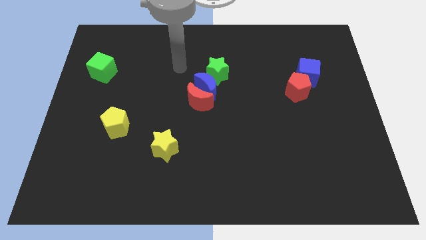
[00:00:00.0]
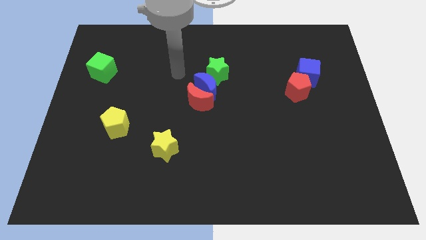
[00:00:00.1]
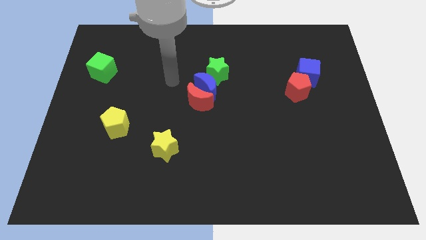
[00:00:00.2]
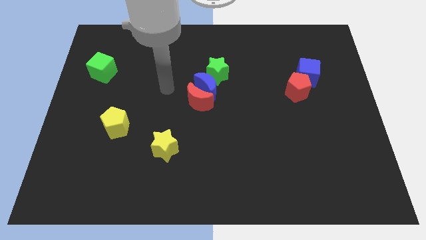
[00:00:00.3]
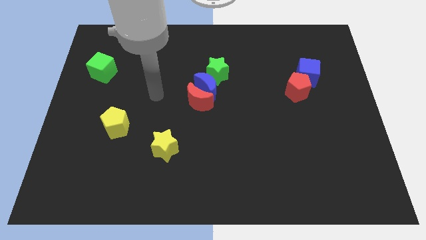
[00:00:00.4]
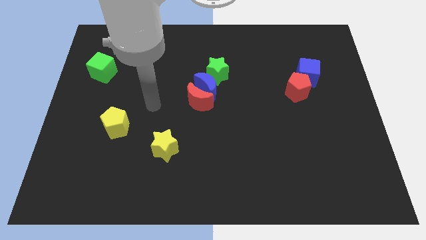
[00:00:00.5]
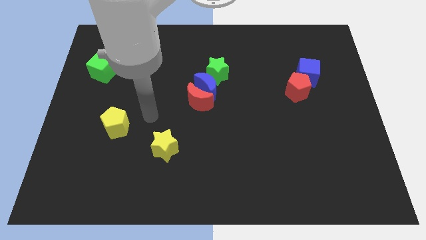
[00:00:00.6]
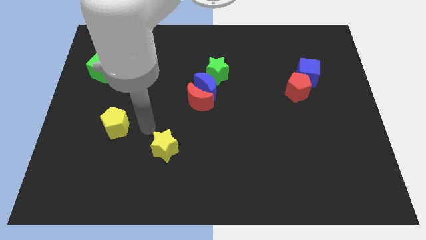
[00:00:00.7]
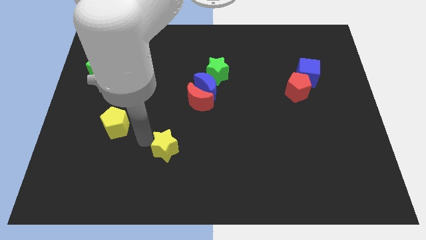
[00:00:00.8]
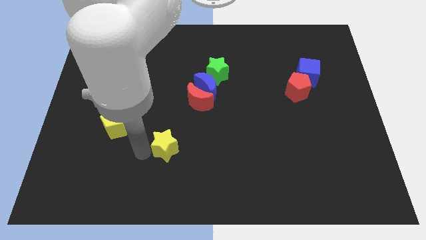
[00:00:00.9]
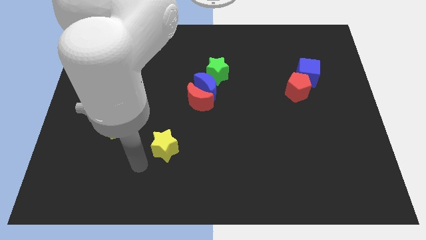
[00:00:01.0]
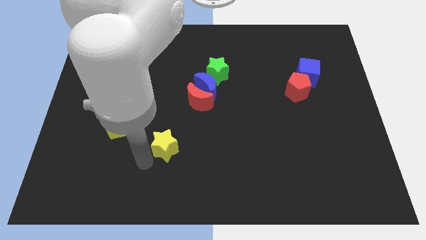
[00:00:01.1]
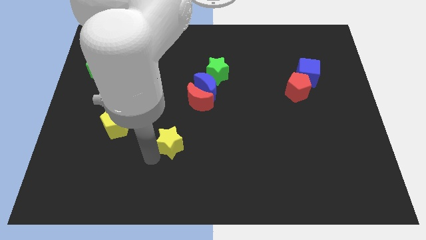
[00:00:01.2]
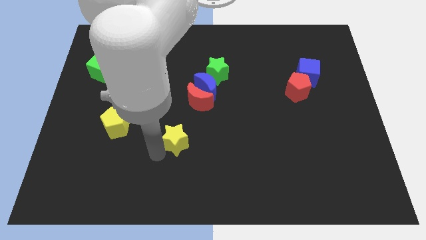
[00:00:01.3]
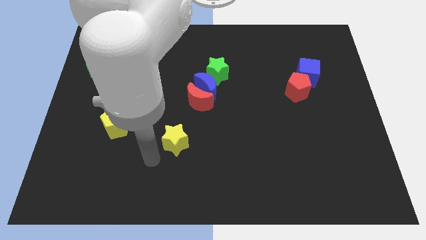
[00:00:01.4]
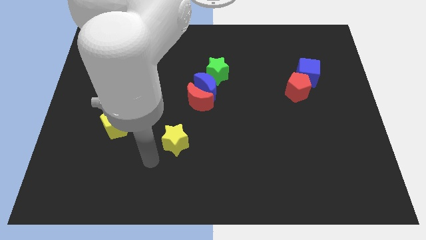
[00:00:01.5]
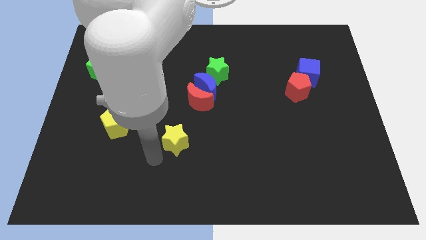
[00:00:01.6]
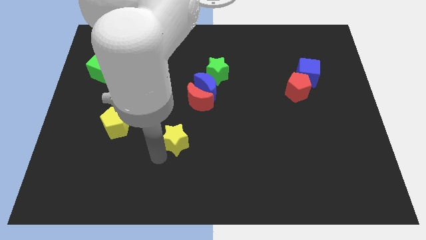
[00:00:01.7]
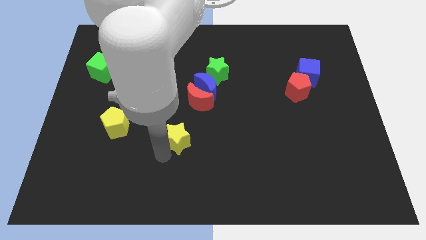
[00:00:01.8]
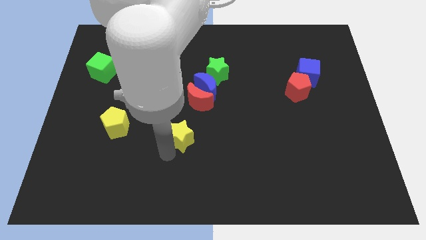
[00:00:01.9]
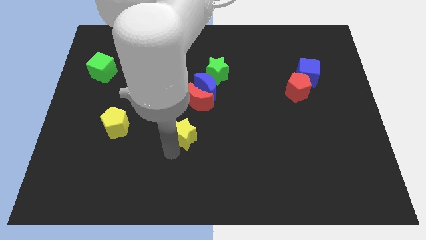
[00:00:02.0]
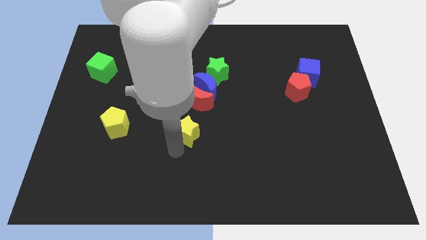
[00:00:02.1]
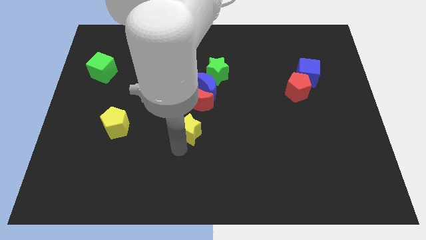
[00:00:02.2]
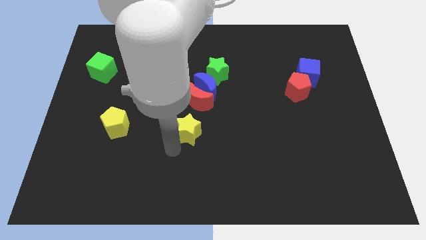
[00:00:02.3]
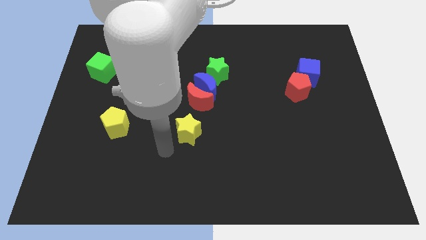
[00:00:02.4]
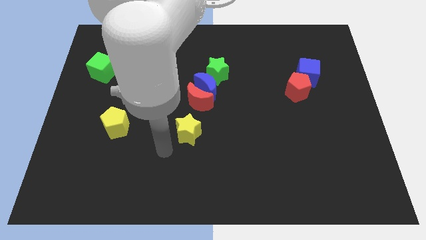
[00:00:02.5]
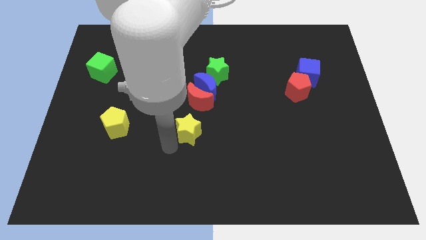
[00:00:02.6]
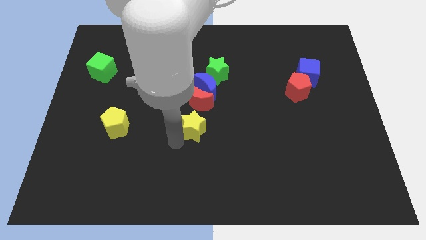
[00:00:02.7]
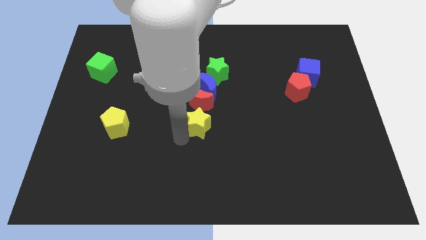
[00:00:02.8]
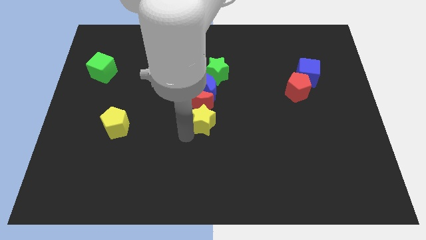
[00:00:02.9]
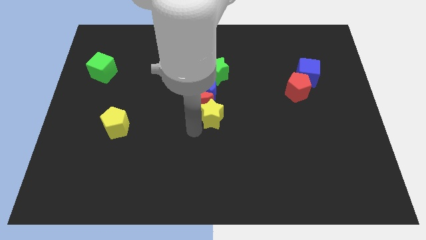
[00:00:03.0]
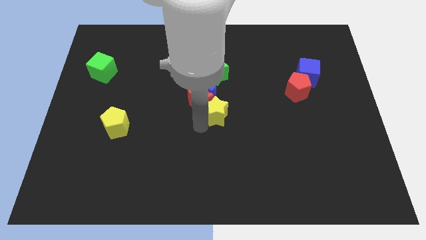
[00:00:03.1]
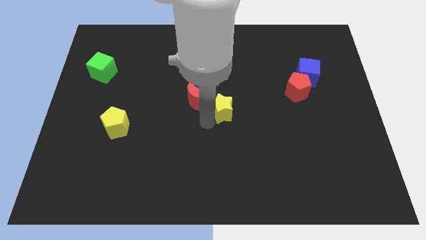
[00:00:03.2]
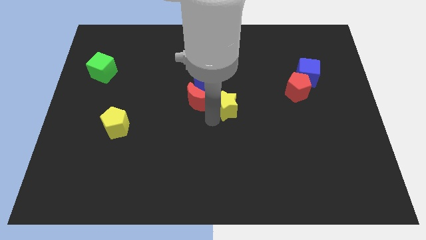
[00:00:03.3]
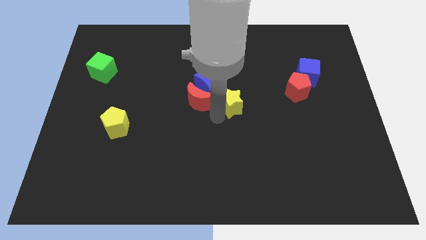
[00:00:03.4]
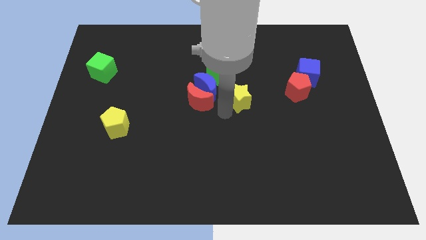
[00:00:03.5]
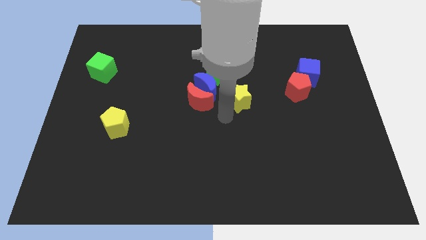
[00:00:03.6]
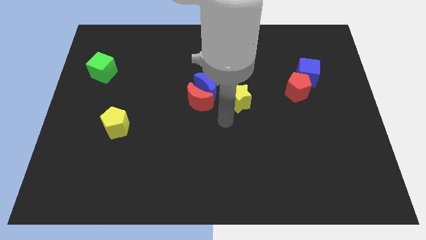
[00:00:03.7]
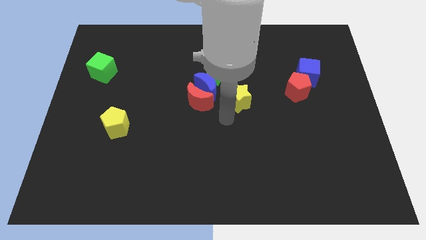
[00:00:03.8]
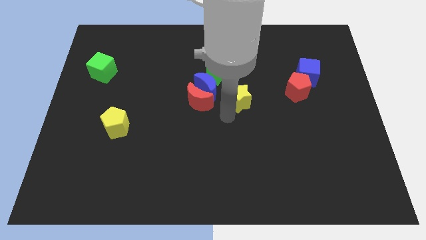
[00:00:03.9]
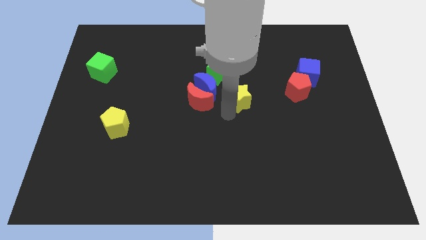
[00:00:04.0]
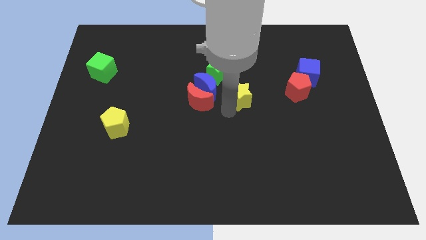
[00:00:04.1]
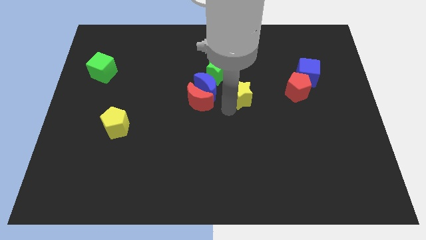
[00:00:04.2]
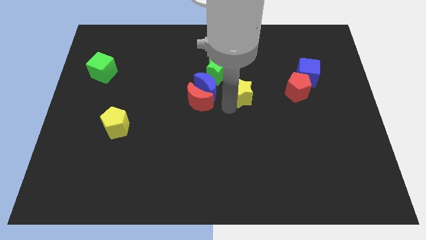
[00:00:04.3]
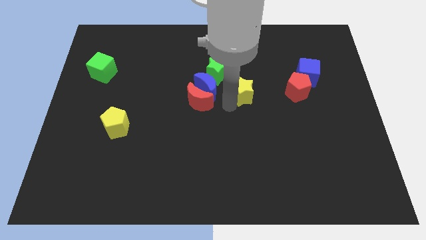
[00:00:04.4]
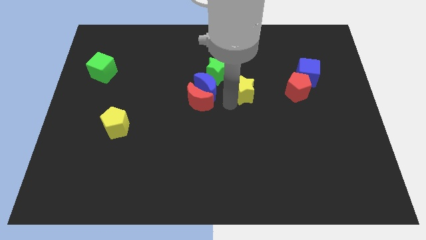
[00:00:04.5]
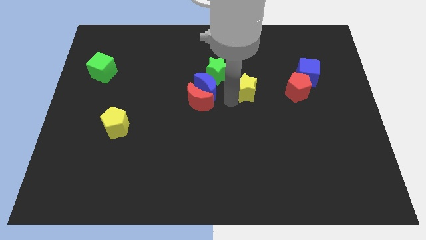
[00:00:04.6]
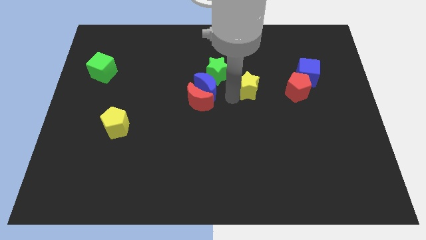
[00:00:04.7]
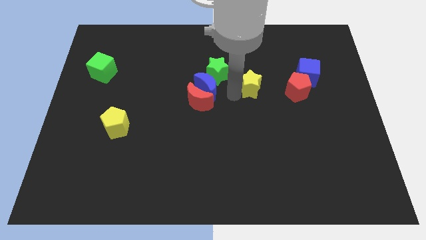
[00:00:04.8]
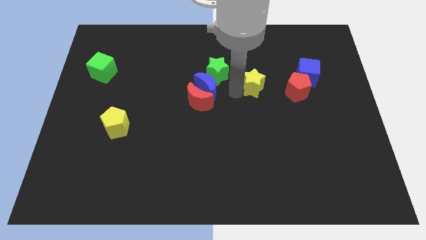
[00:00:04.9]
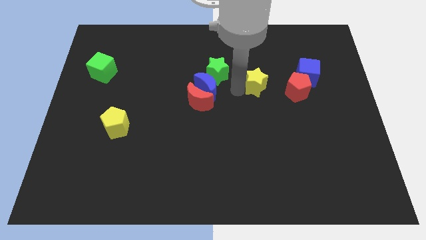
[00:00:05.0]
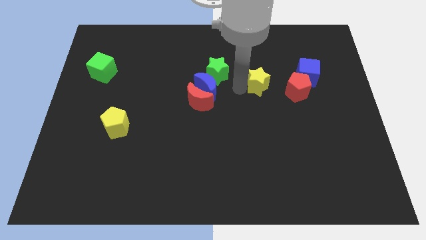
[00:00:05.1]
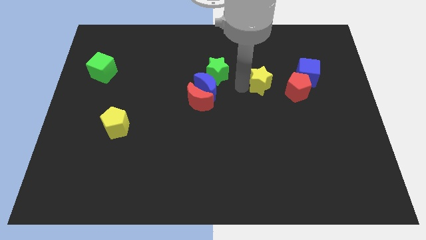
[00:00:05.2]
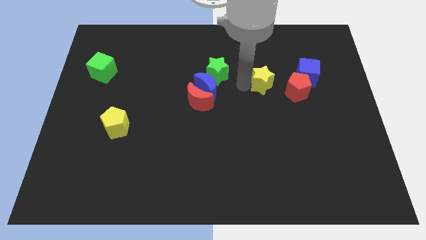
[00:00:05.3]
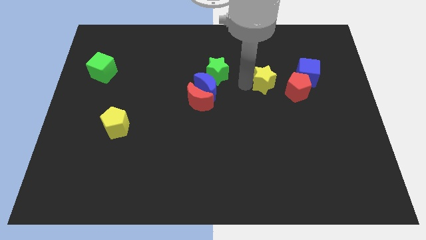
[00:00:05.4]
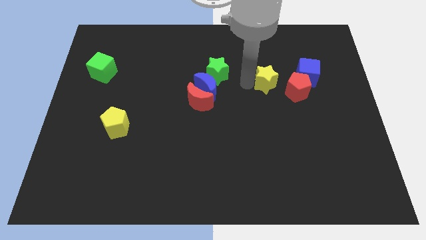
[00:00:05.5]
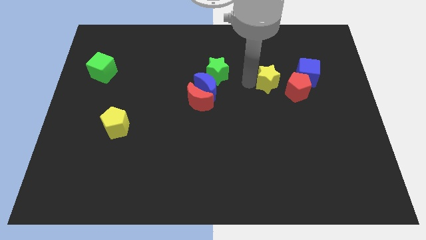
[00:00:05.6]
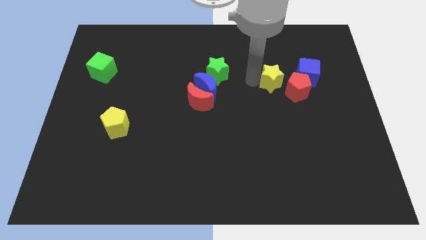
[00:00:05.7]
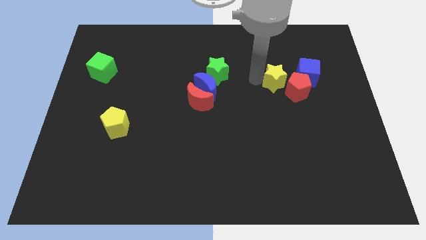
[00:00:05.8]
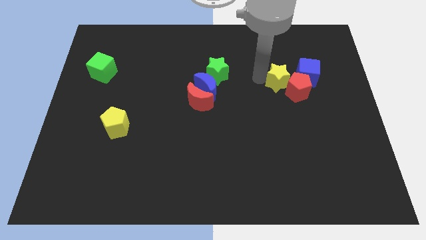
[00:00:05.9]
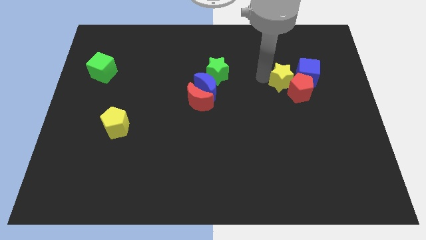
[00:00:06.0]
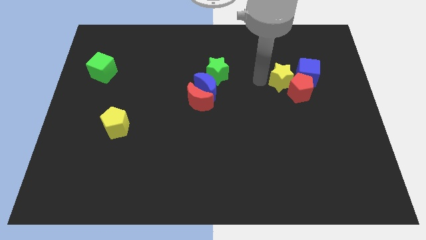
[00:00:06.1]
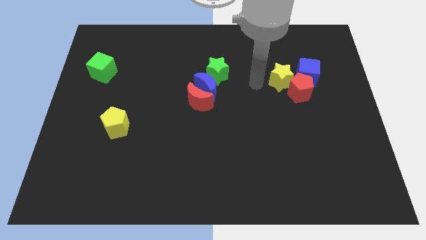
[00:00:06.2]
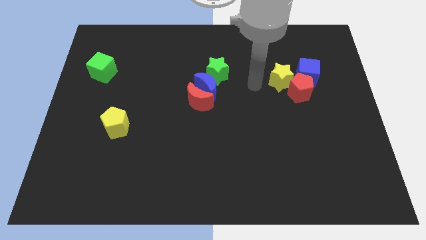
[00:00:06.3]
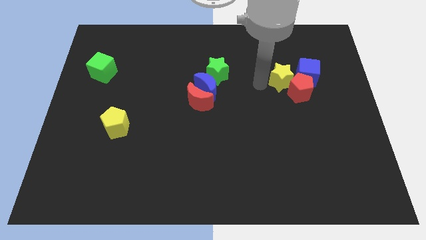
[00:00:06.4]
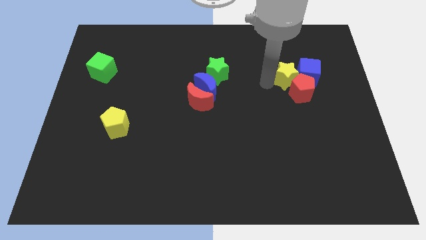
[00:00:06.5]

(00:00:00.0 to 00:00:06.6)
move the yellow star to the blue cube

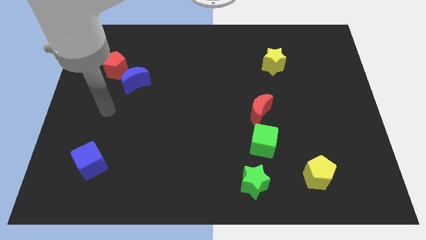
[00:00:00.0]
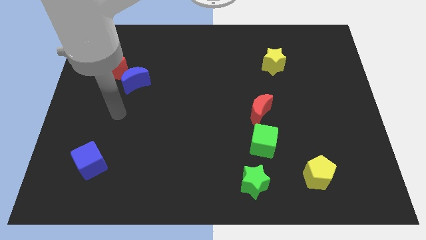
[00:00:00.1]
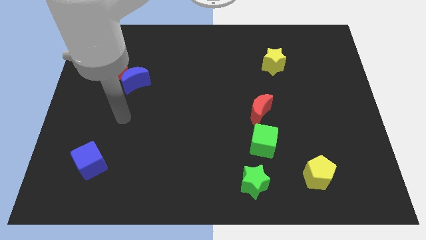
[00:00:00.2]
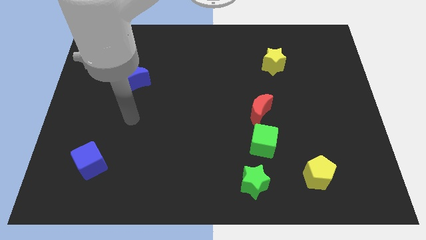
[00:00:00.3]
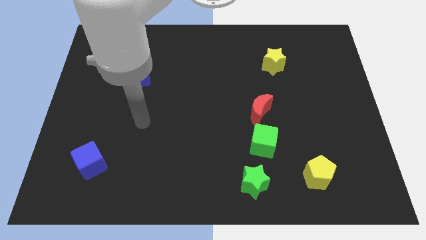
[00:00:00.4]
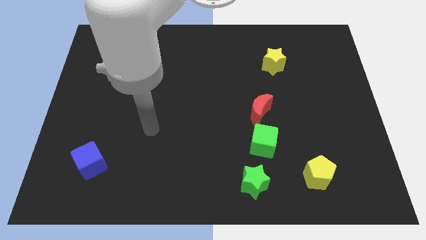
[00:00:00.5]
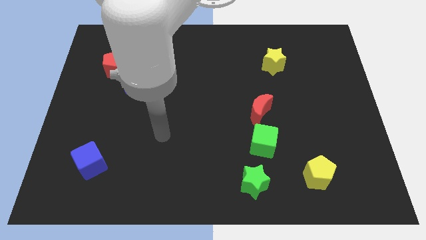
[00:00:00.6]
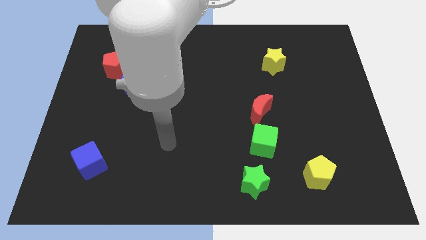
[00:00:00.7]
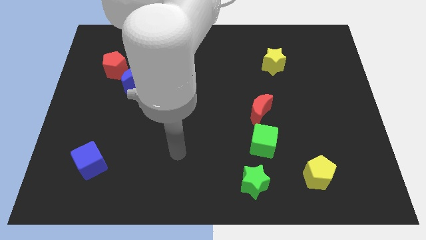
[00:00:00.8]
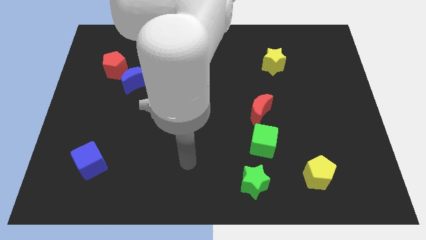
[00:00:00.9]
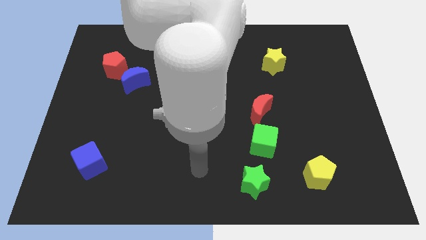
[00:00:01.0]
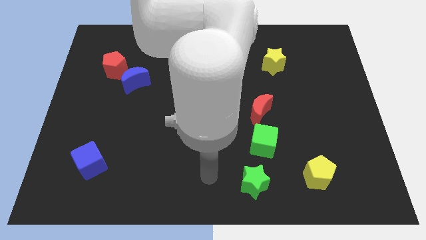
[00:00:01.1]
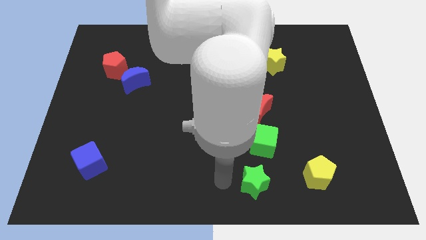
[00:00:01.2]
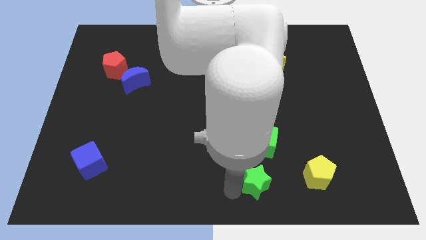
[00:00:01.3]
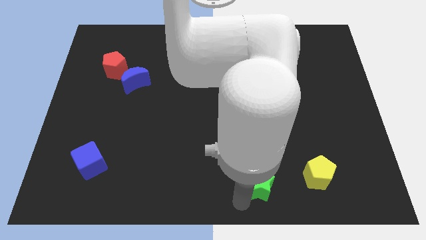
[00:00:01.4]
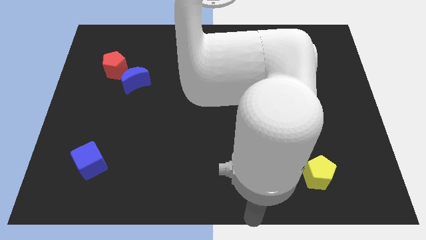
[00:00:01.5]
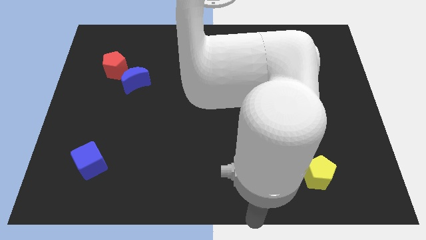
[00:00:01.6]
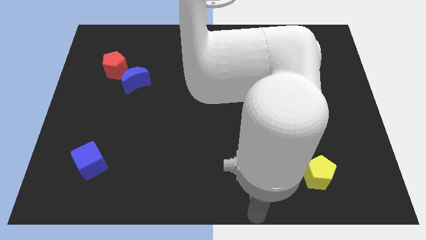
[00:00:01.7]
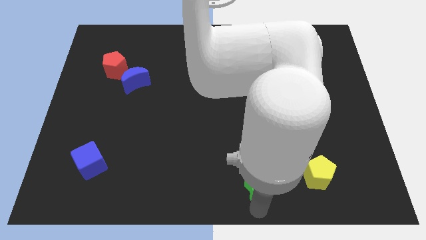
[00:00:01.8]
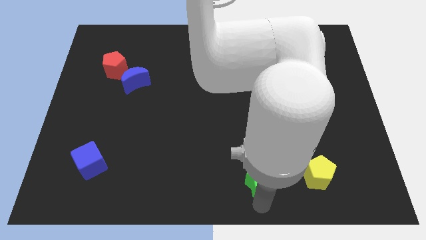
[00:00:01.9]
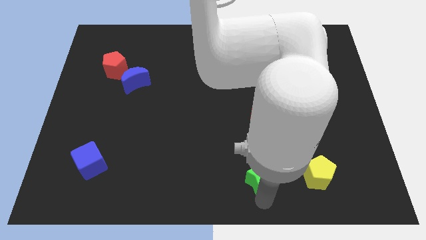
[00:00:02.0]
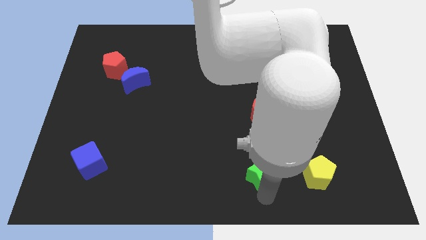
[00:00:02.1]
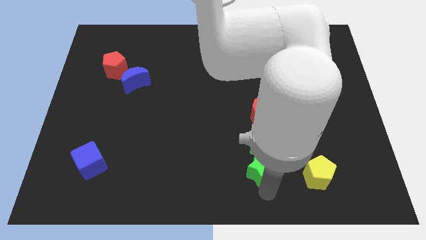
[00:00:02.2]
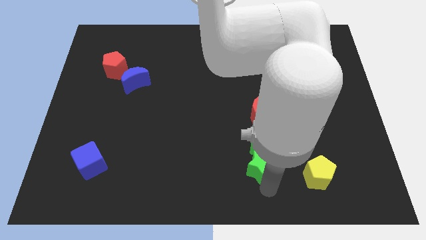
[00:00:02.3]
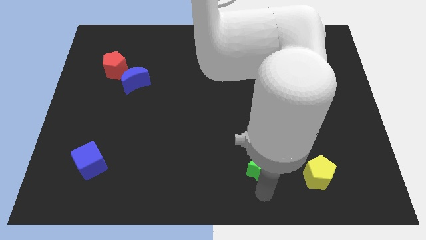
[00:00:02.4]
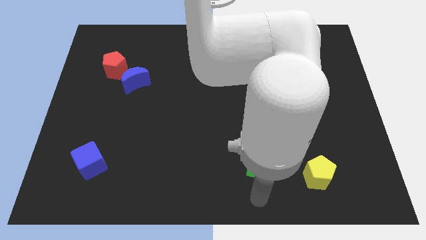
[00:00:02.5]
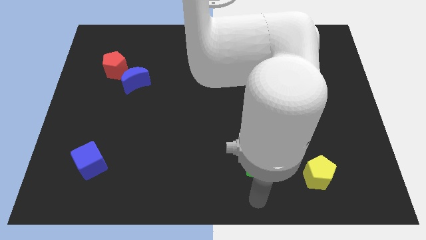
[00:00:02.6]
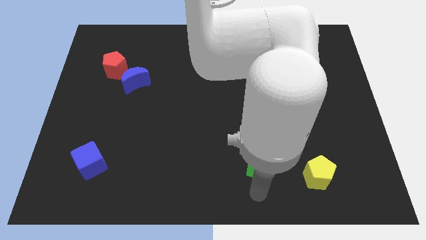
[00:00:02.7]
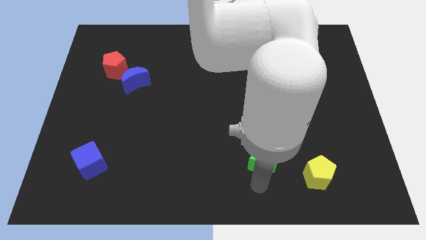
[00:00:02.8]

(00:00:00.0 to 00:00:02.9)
put the green star close to the green cube
